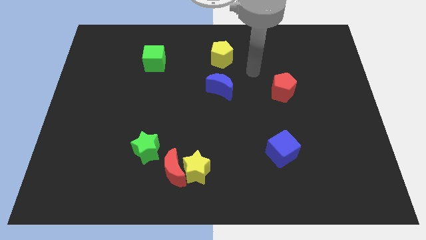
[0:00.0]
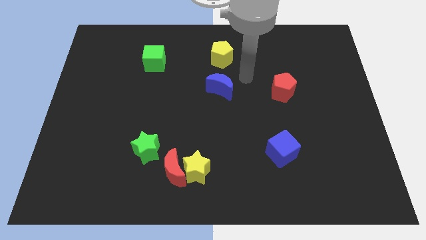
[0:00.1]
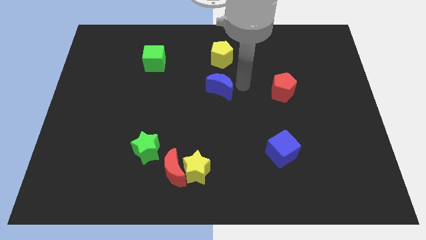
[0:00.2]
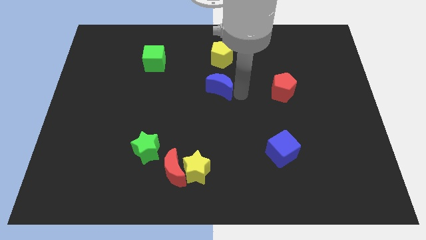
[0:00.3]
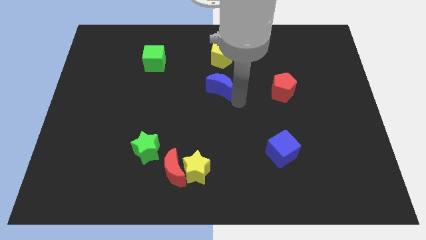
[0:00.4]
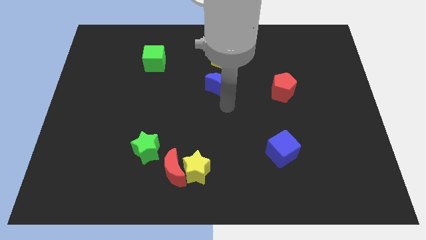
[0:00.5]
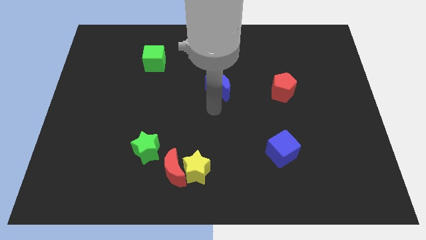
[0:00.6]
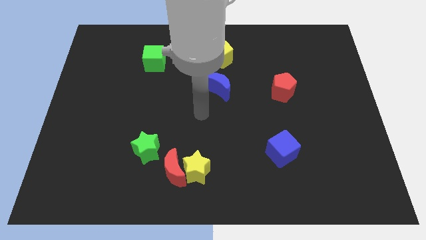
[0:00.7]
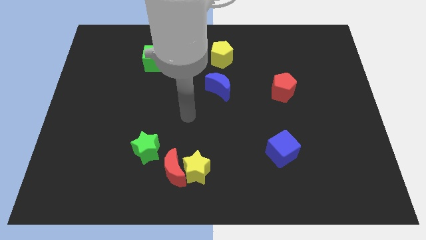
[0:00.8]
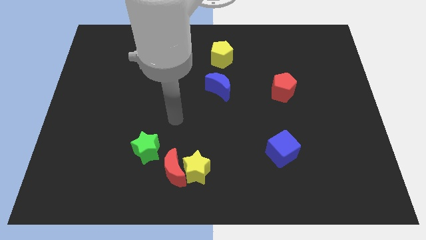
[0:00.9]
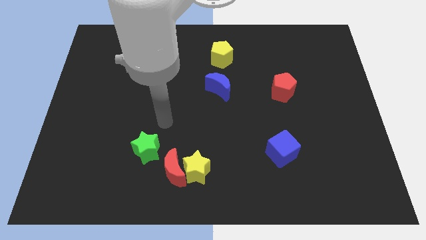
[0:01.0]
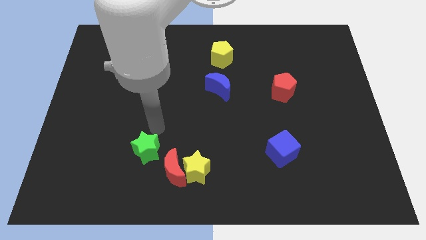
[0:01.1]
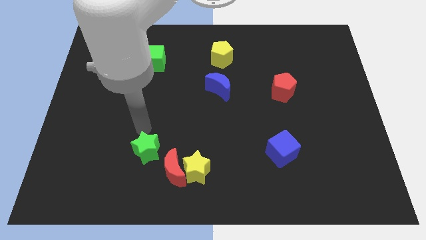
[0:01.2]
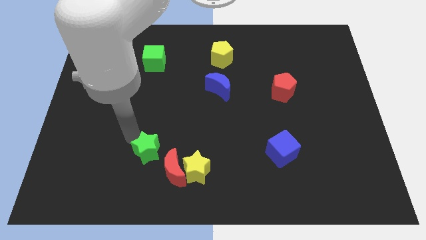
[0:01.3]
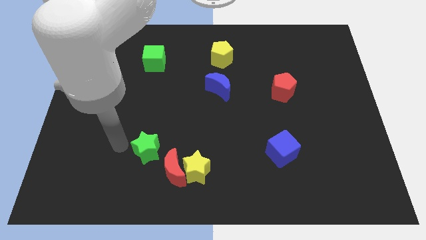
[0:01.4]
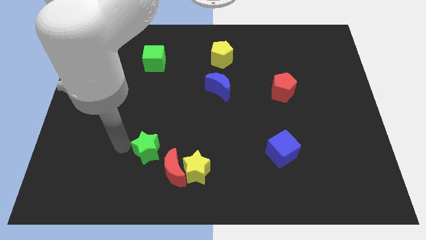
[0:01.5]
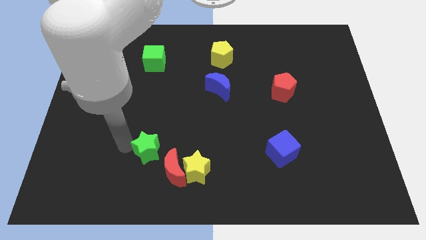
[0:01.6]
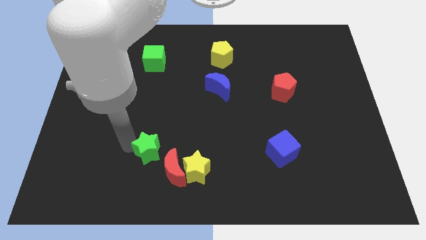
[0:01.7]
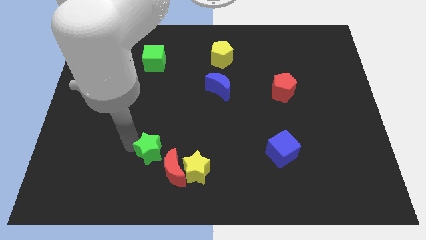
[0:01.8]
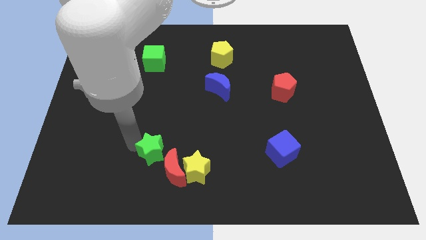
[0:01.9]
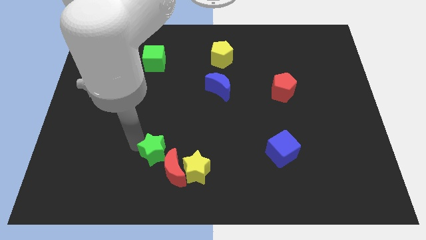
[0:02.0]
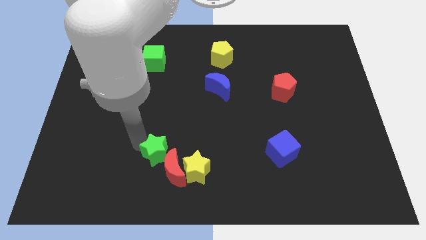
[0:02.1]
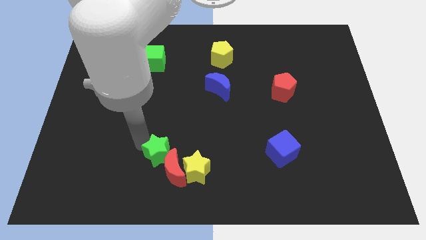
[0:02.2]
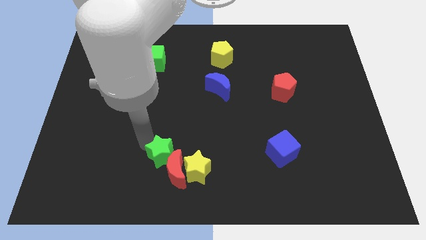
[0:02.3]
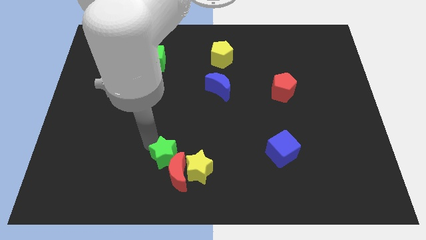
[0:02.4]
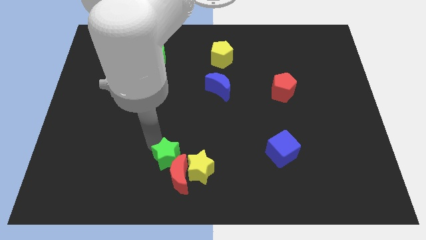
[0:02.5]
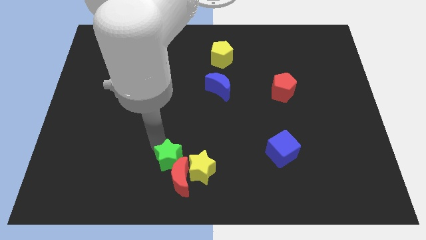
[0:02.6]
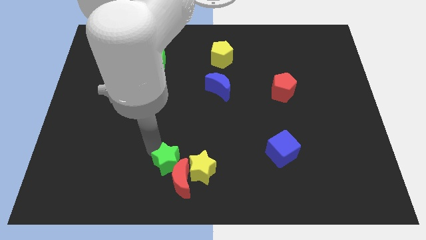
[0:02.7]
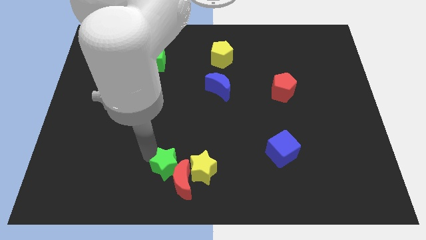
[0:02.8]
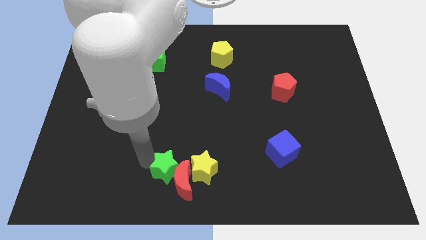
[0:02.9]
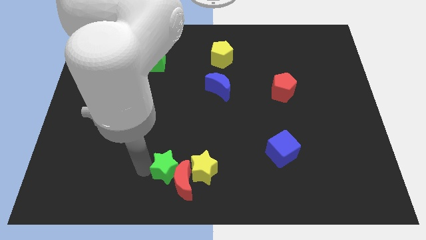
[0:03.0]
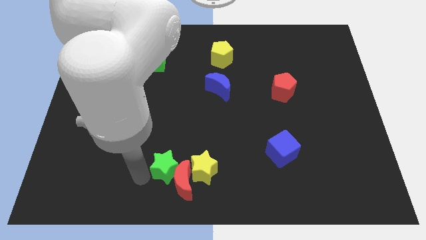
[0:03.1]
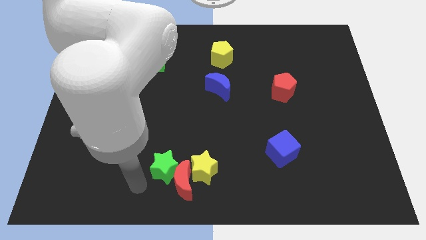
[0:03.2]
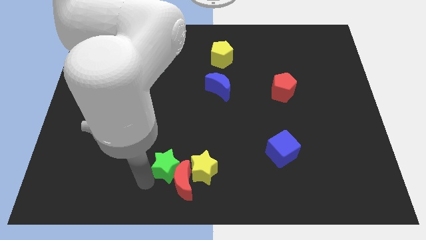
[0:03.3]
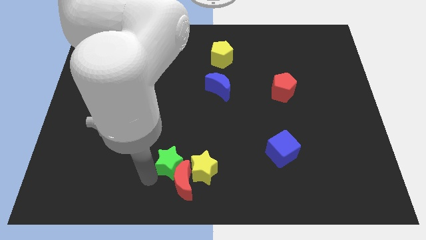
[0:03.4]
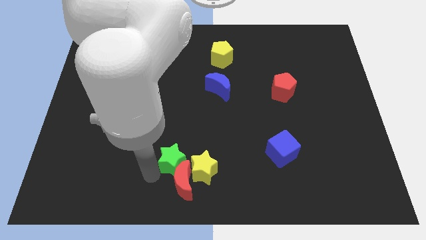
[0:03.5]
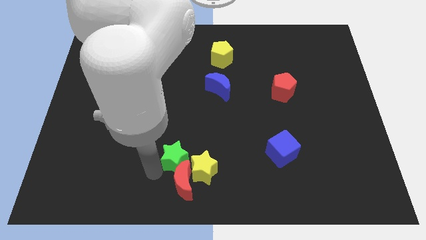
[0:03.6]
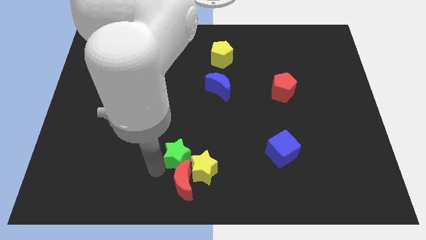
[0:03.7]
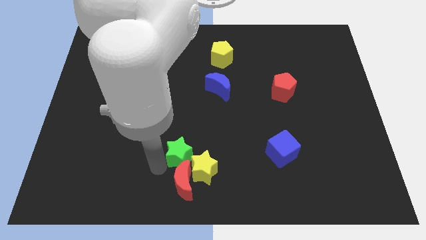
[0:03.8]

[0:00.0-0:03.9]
slightly move the green star to the right

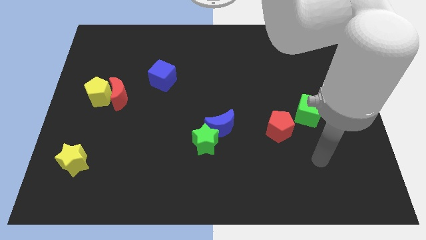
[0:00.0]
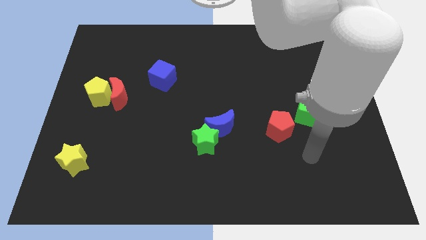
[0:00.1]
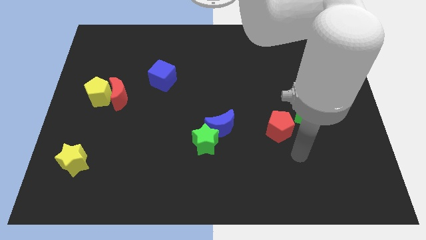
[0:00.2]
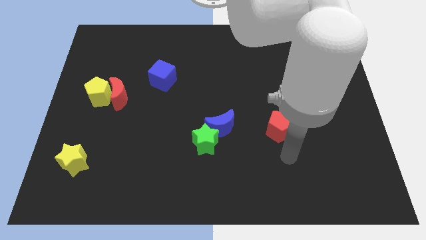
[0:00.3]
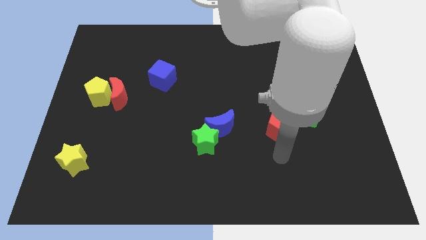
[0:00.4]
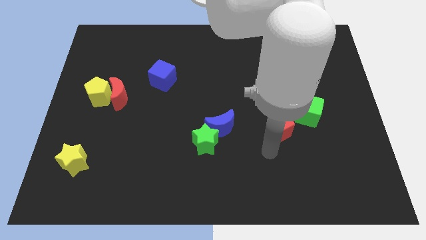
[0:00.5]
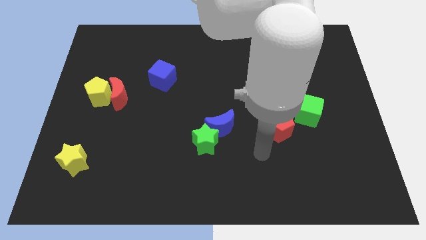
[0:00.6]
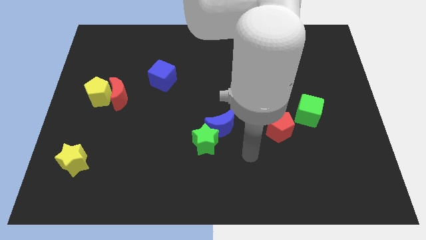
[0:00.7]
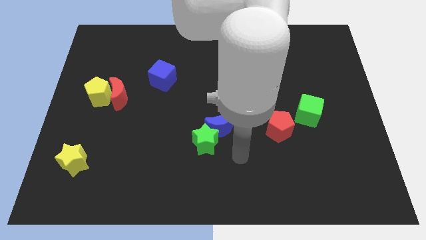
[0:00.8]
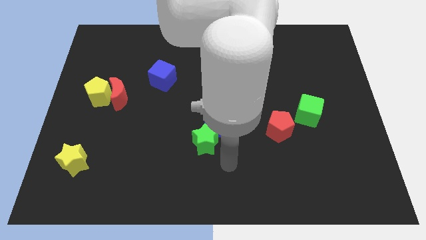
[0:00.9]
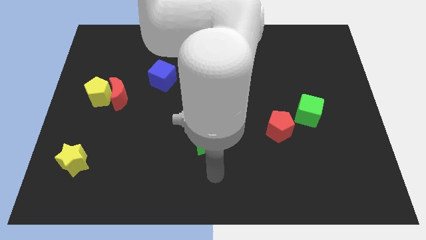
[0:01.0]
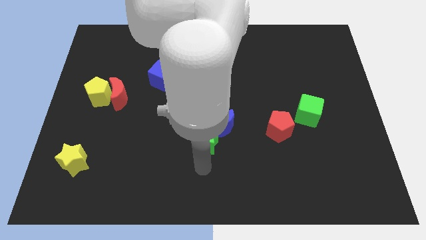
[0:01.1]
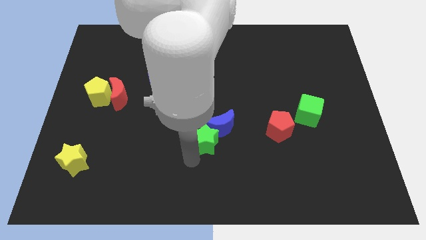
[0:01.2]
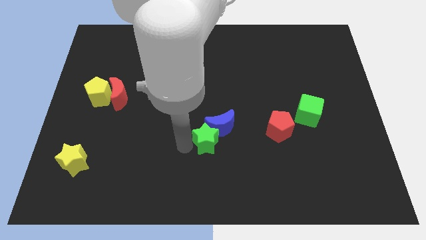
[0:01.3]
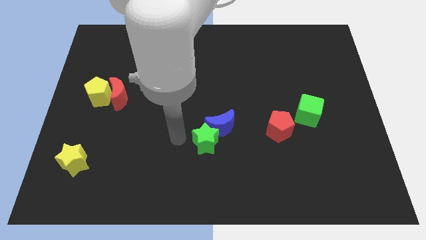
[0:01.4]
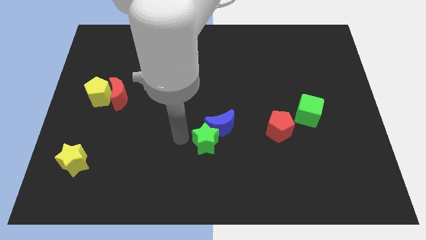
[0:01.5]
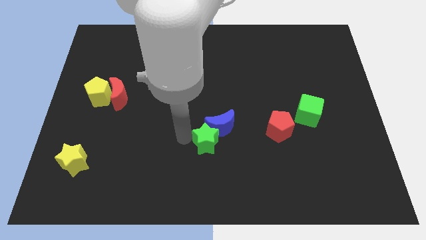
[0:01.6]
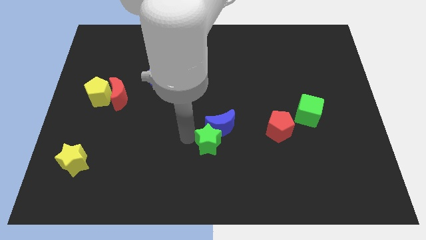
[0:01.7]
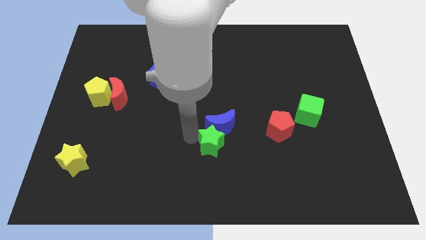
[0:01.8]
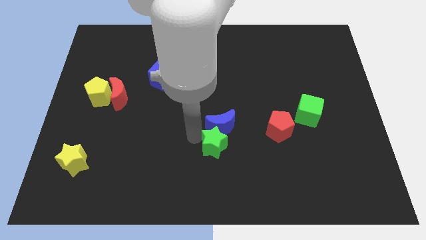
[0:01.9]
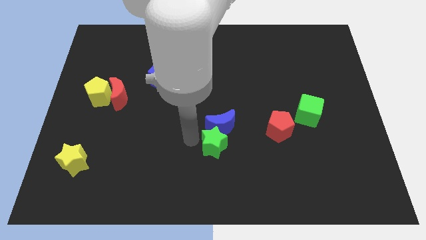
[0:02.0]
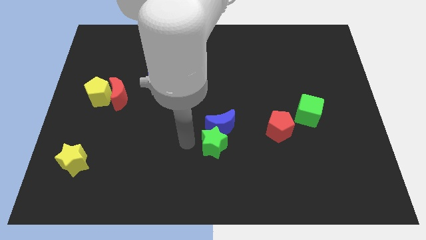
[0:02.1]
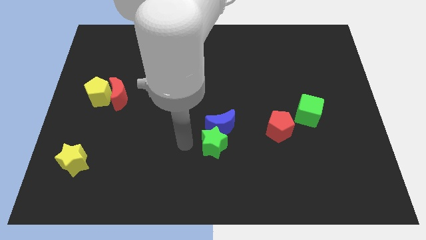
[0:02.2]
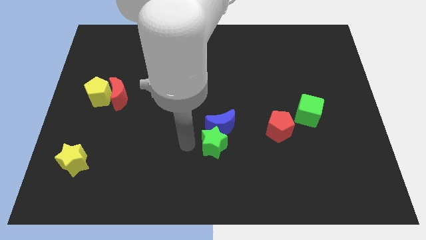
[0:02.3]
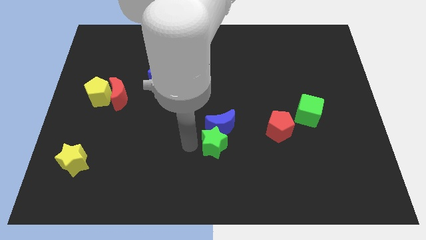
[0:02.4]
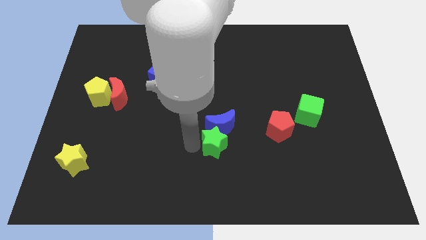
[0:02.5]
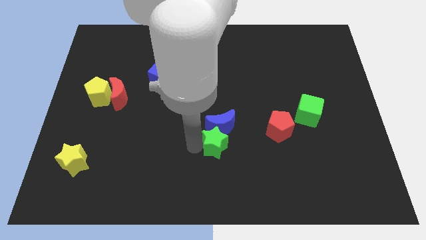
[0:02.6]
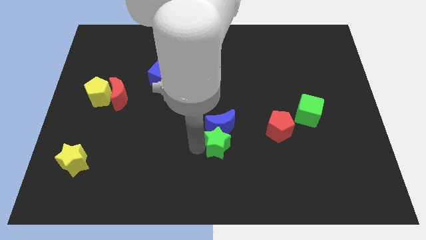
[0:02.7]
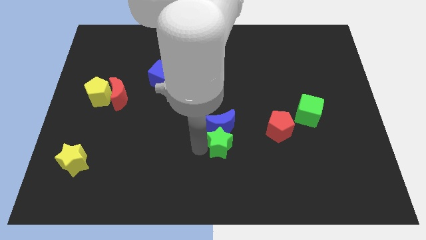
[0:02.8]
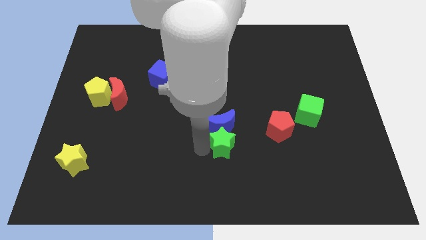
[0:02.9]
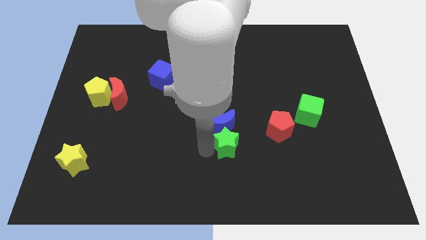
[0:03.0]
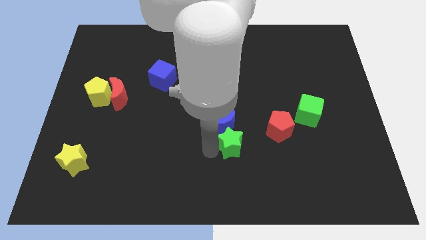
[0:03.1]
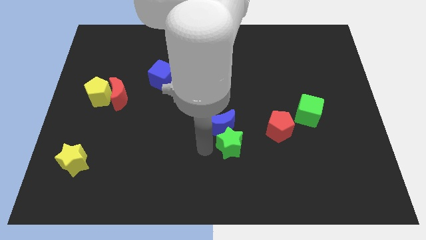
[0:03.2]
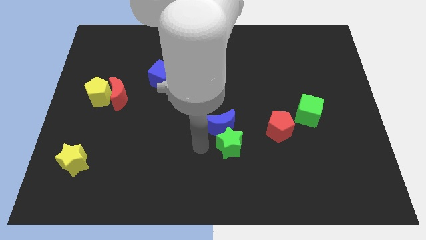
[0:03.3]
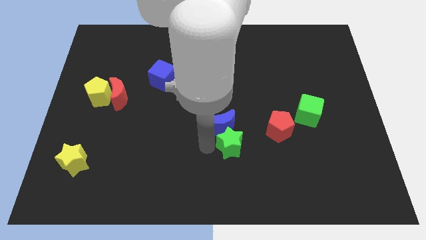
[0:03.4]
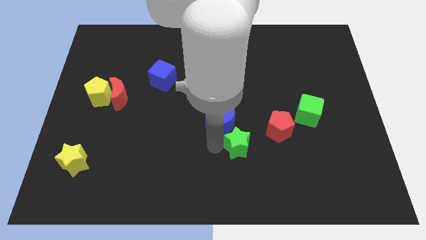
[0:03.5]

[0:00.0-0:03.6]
move the green star a little right

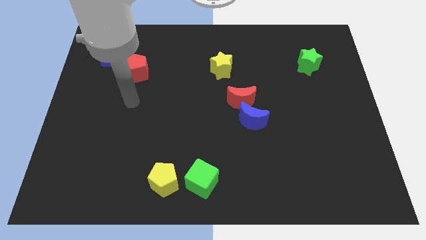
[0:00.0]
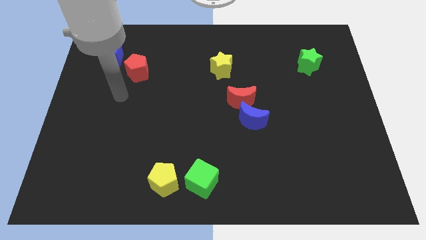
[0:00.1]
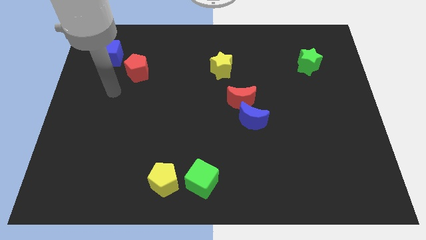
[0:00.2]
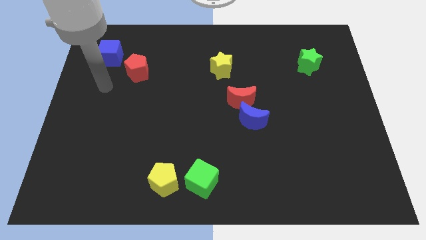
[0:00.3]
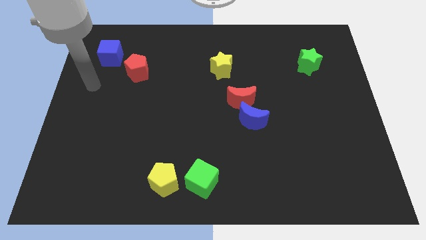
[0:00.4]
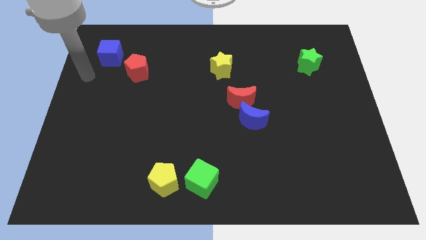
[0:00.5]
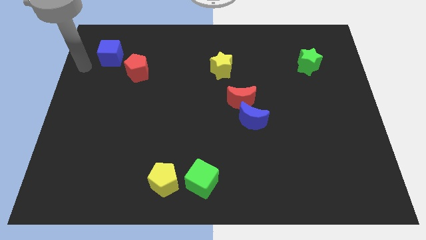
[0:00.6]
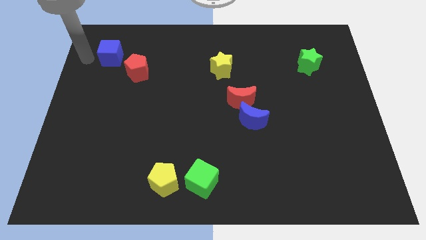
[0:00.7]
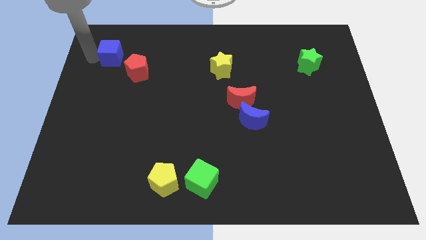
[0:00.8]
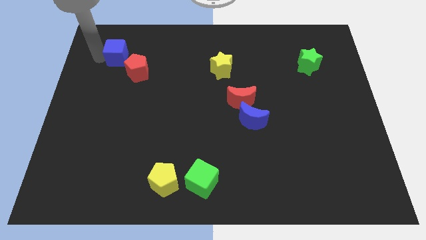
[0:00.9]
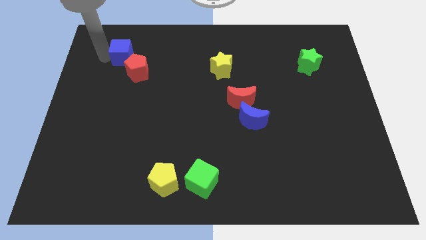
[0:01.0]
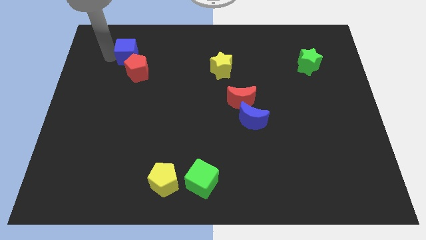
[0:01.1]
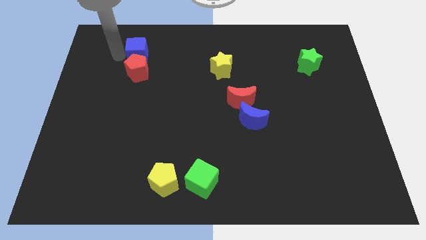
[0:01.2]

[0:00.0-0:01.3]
slide the blue cube somewhat to the right
